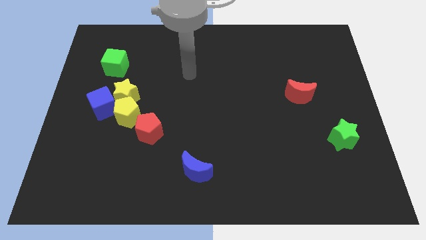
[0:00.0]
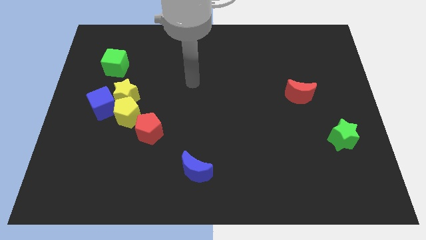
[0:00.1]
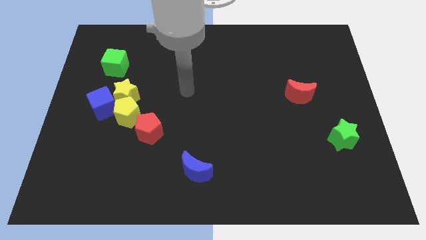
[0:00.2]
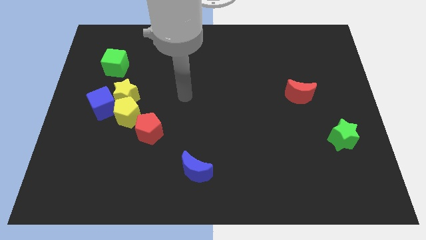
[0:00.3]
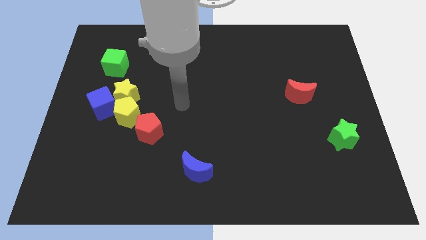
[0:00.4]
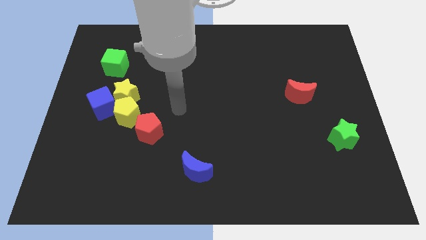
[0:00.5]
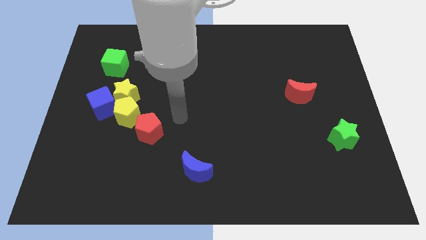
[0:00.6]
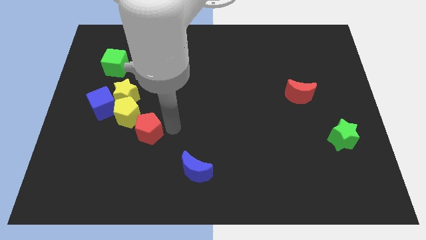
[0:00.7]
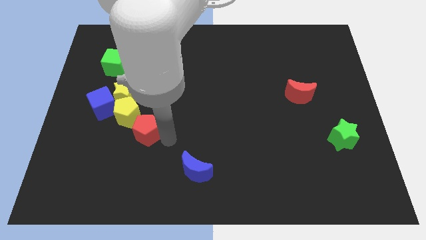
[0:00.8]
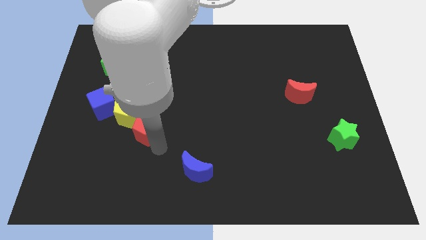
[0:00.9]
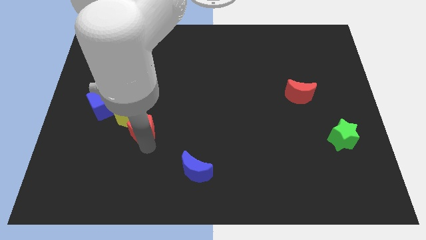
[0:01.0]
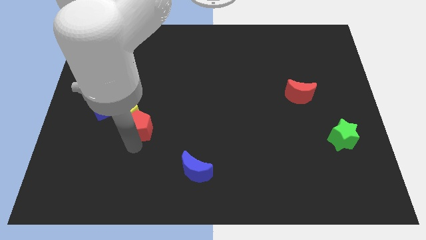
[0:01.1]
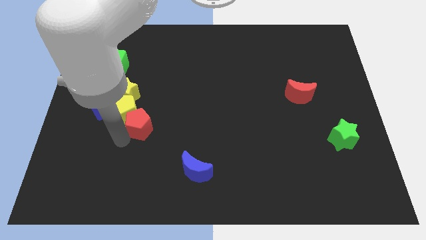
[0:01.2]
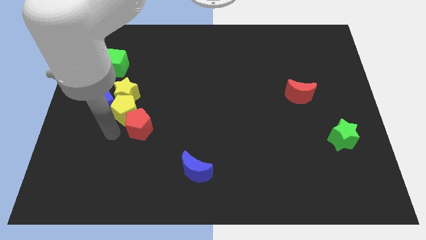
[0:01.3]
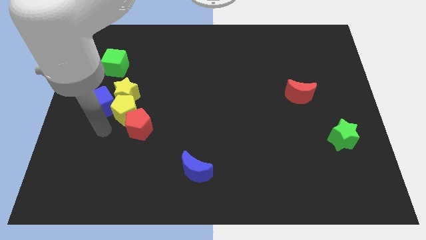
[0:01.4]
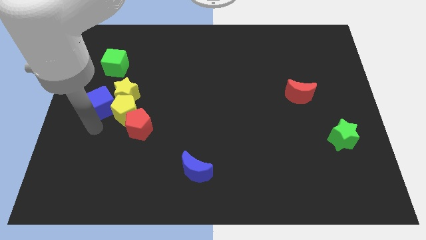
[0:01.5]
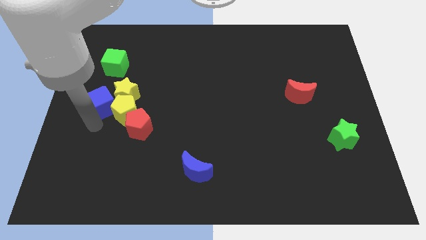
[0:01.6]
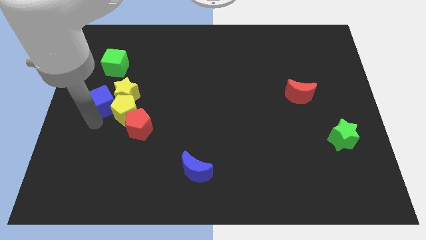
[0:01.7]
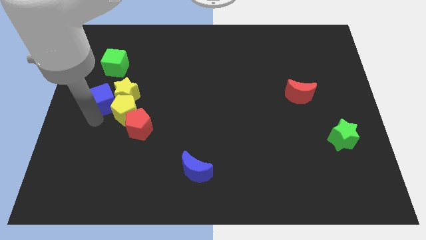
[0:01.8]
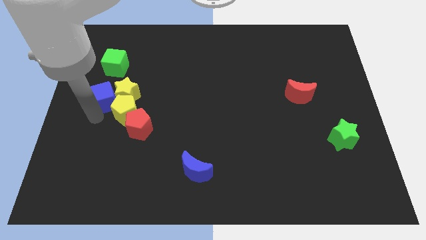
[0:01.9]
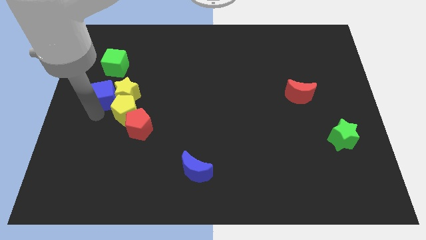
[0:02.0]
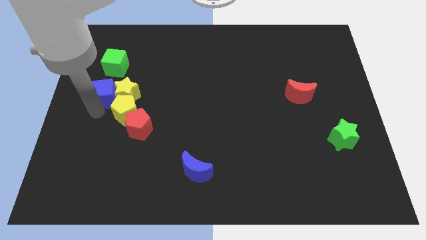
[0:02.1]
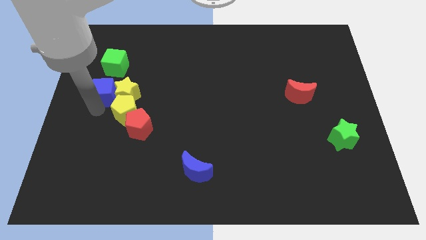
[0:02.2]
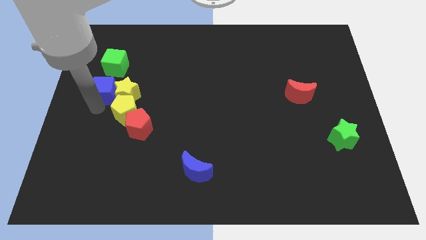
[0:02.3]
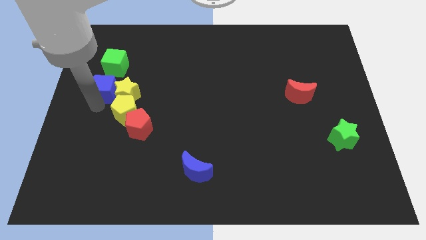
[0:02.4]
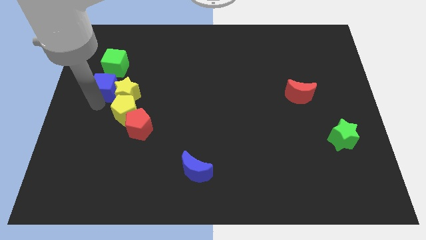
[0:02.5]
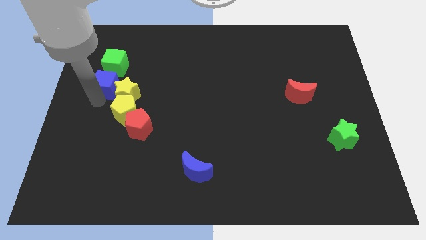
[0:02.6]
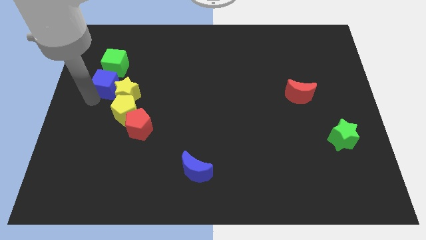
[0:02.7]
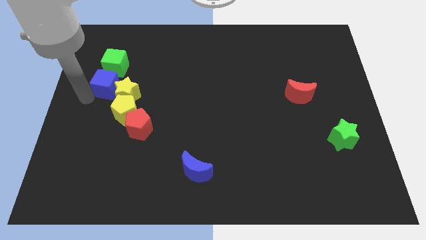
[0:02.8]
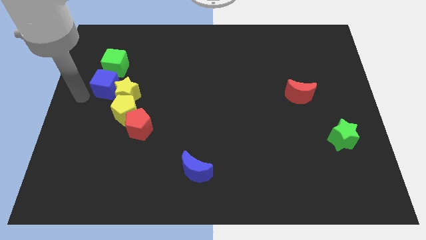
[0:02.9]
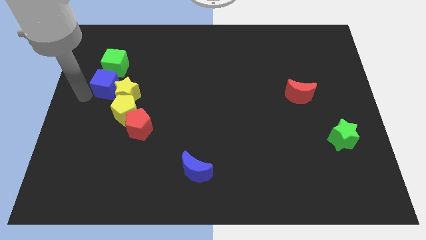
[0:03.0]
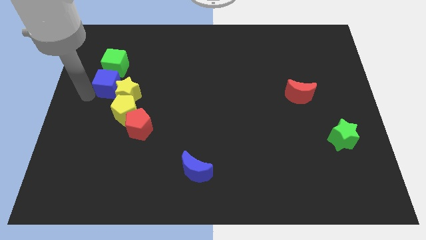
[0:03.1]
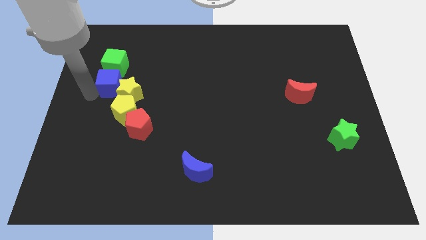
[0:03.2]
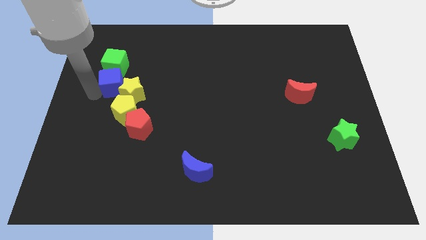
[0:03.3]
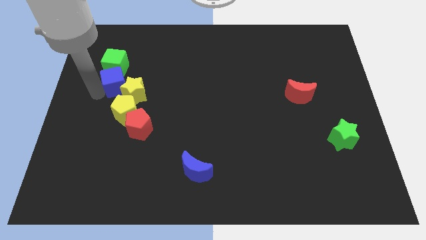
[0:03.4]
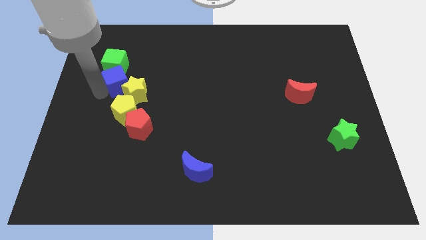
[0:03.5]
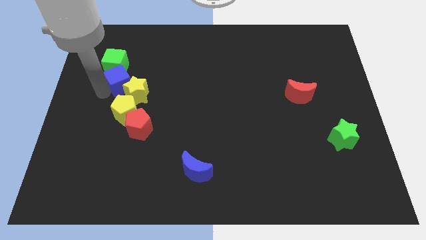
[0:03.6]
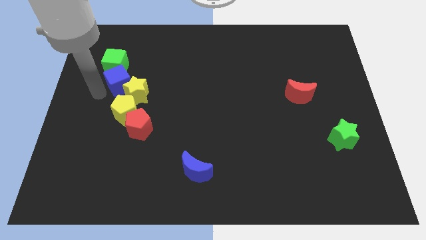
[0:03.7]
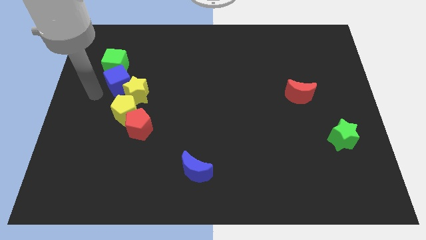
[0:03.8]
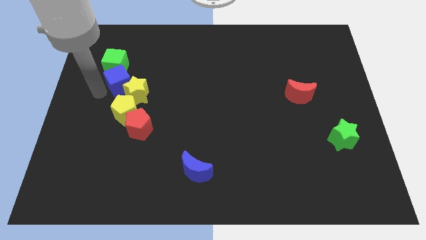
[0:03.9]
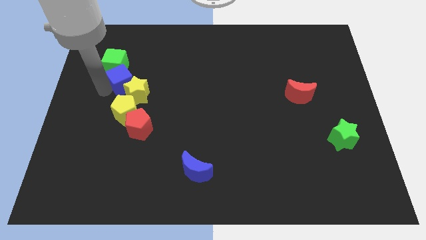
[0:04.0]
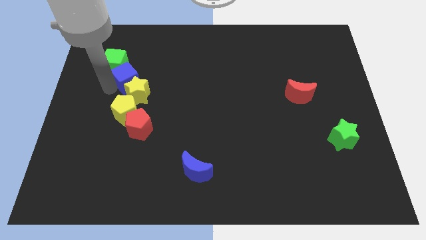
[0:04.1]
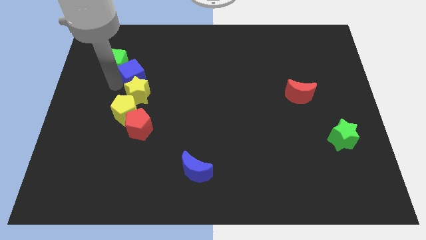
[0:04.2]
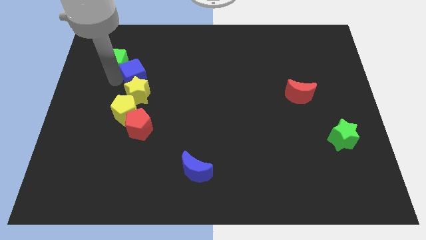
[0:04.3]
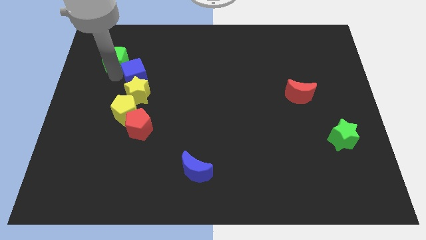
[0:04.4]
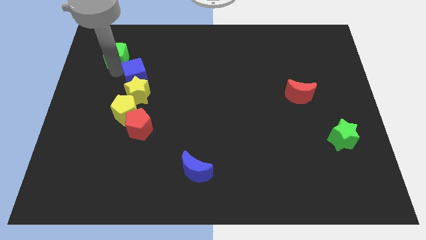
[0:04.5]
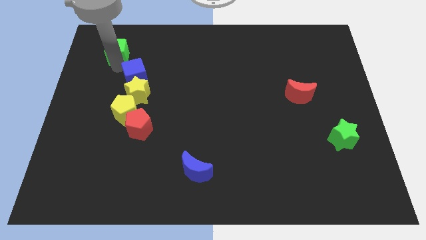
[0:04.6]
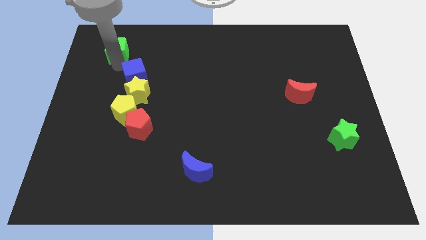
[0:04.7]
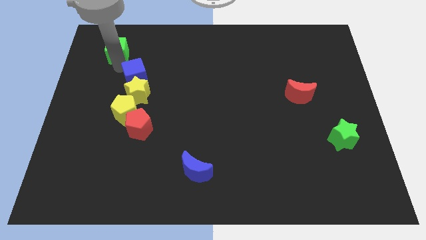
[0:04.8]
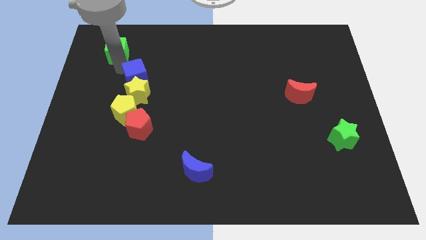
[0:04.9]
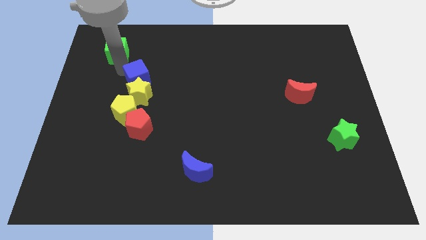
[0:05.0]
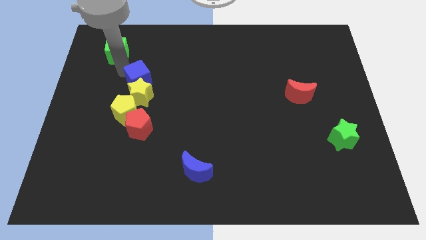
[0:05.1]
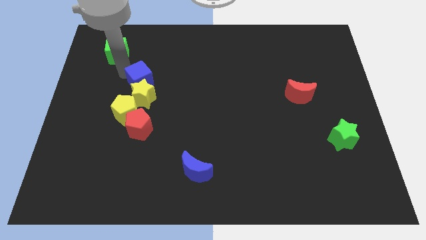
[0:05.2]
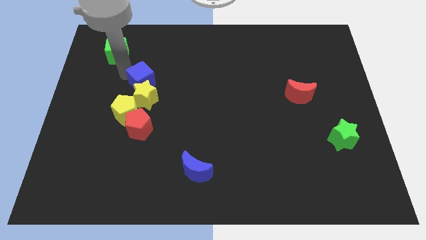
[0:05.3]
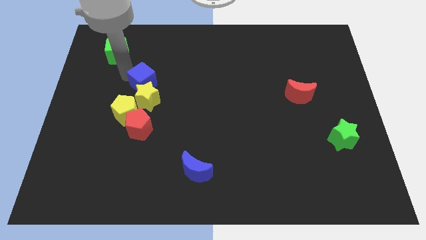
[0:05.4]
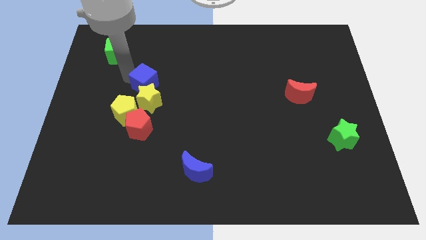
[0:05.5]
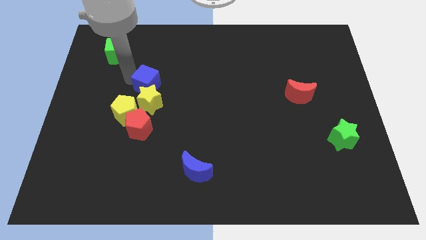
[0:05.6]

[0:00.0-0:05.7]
push the blue cube to the right a little

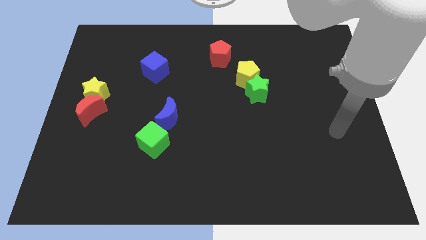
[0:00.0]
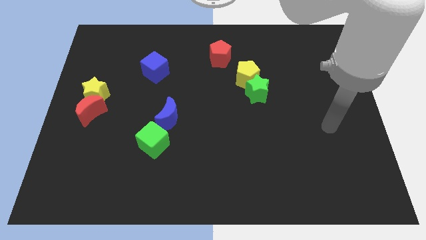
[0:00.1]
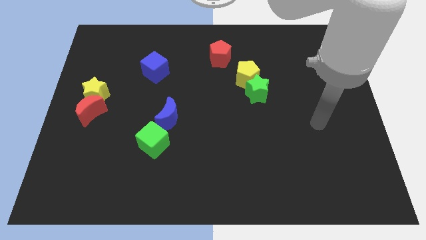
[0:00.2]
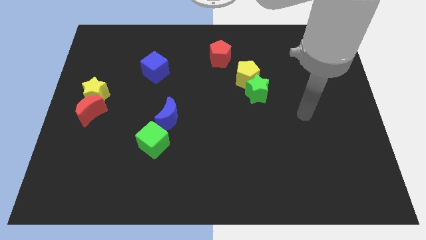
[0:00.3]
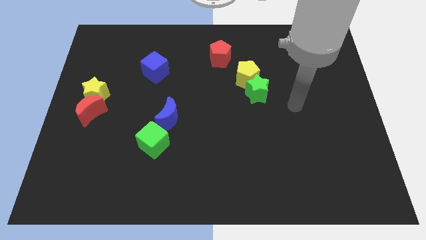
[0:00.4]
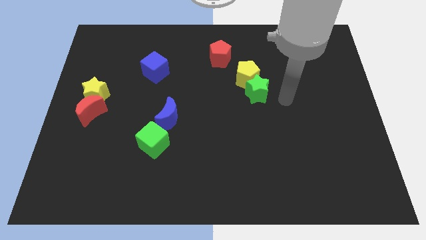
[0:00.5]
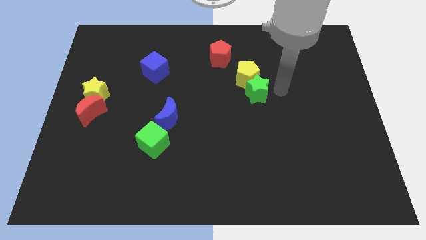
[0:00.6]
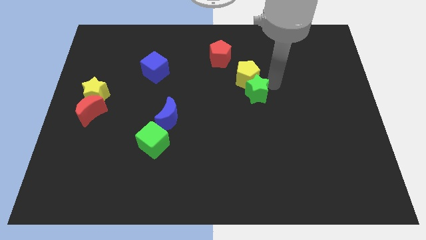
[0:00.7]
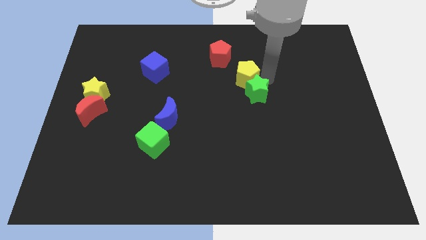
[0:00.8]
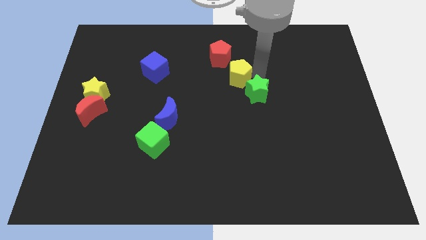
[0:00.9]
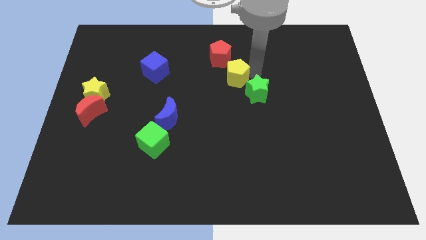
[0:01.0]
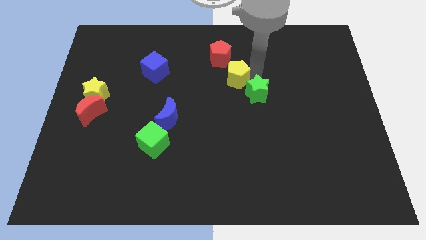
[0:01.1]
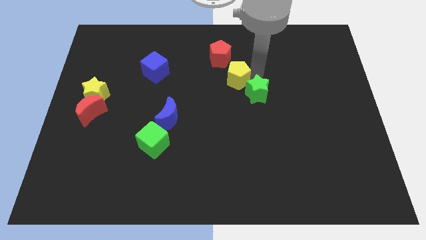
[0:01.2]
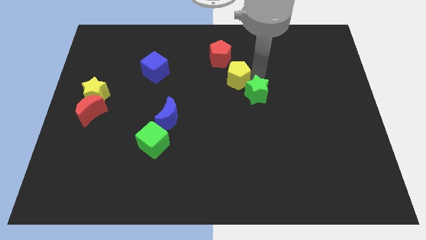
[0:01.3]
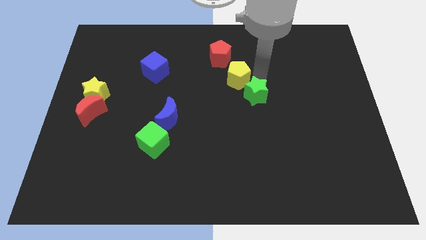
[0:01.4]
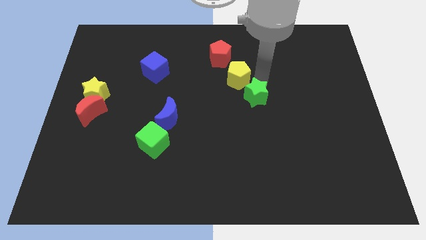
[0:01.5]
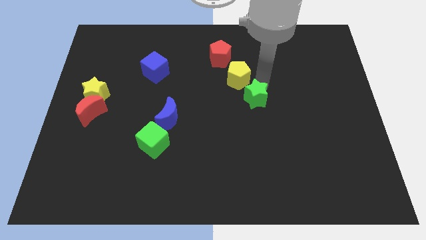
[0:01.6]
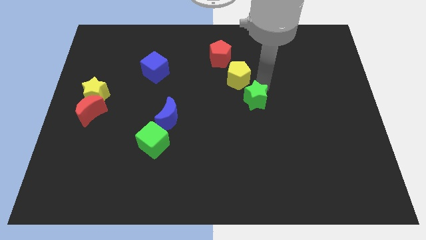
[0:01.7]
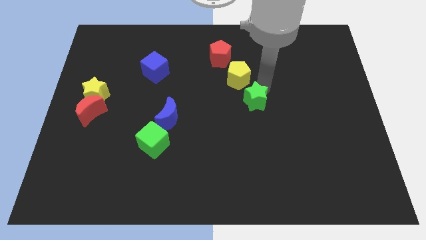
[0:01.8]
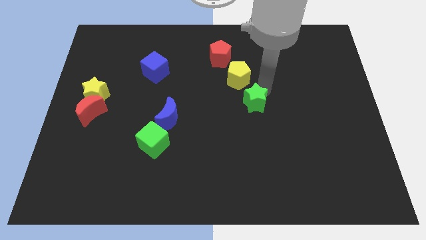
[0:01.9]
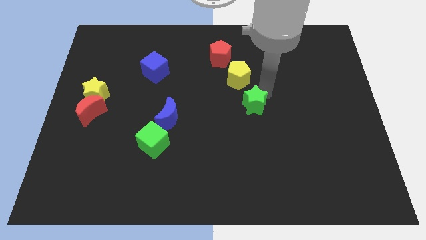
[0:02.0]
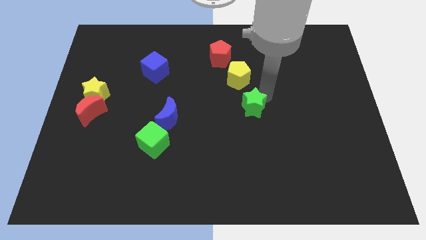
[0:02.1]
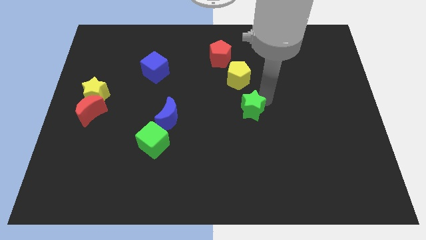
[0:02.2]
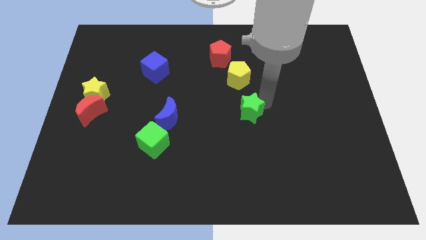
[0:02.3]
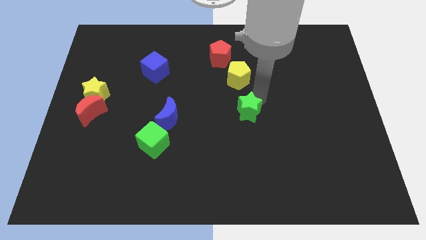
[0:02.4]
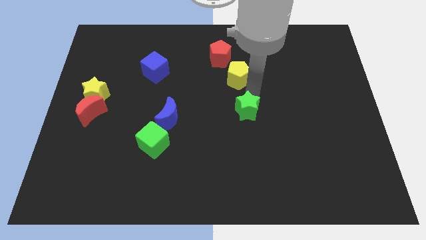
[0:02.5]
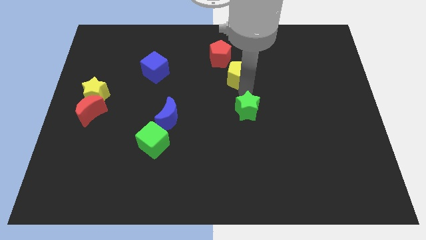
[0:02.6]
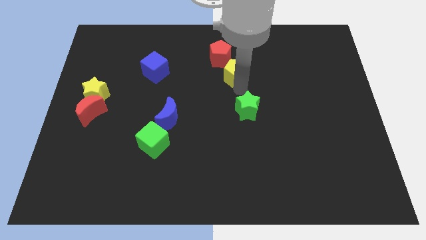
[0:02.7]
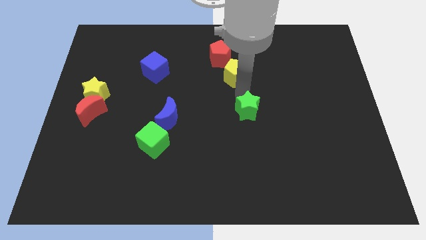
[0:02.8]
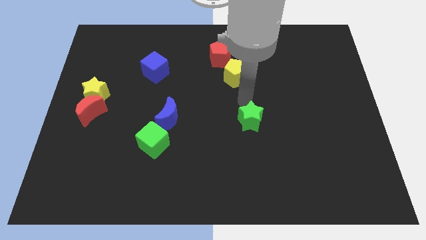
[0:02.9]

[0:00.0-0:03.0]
move the green star a little down
